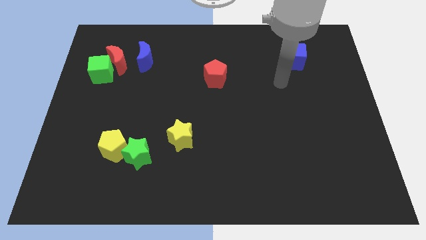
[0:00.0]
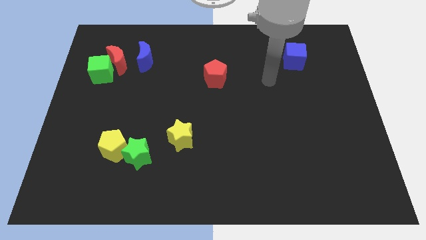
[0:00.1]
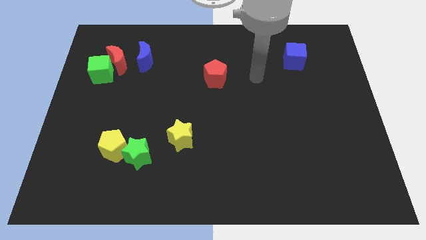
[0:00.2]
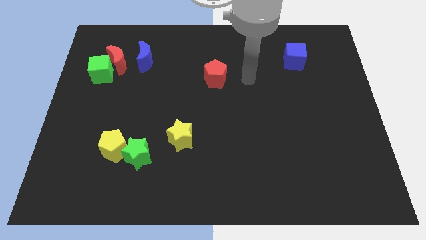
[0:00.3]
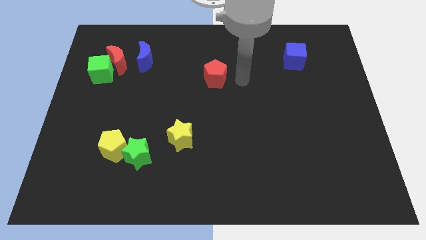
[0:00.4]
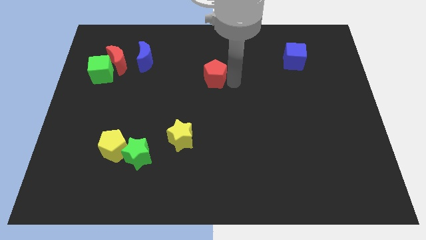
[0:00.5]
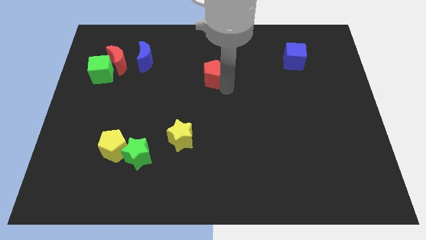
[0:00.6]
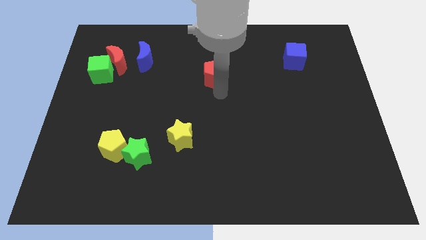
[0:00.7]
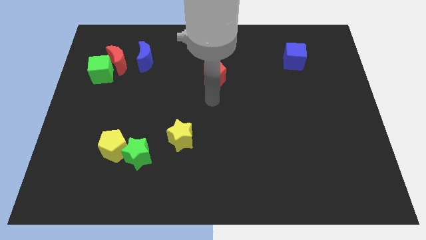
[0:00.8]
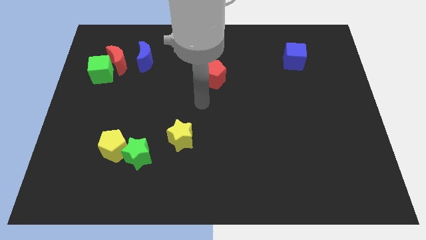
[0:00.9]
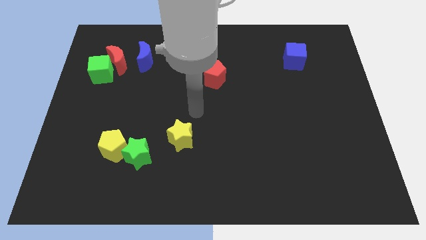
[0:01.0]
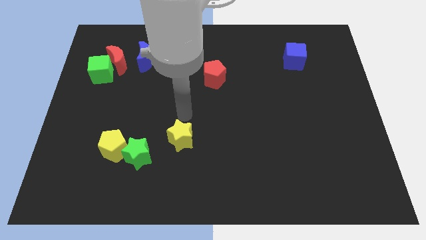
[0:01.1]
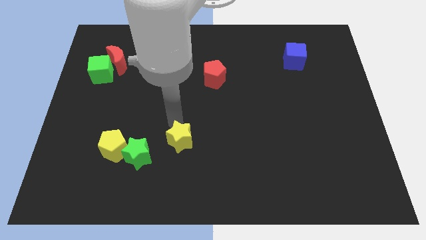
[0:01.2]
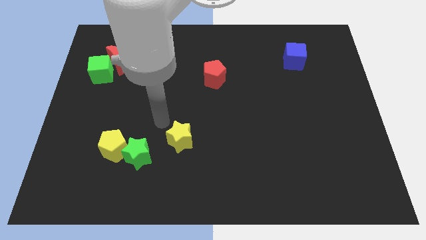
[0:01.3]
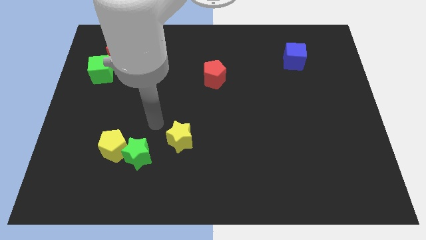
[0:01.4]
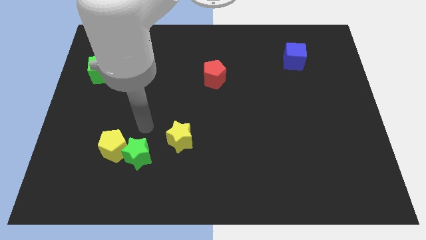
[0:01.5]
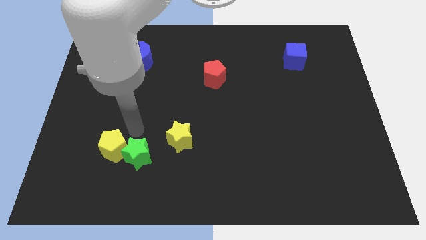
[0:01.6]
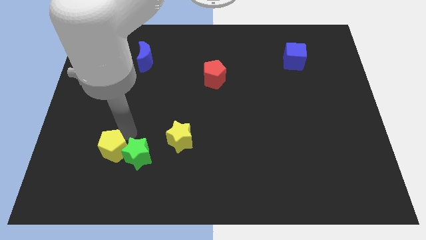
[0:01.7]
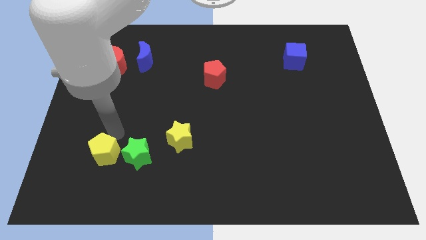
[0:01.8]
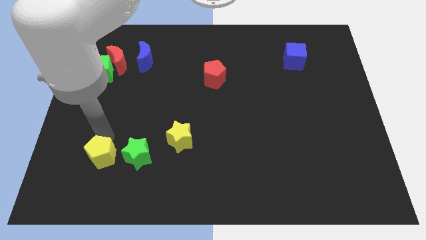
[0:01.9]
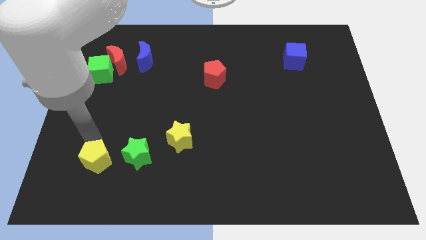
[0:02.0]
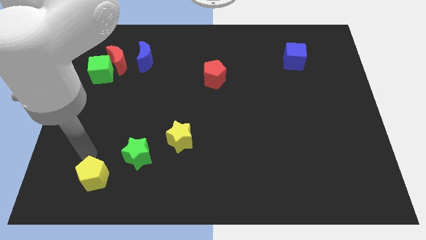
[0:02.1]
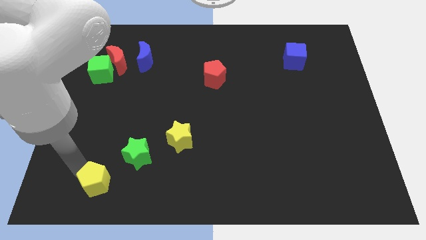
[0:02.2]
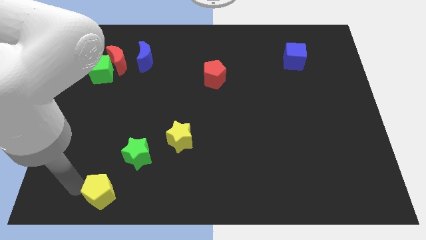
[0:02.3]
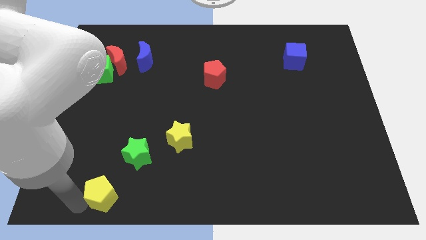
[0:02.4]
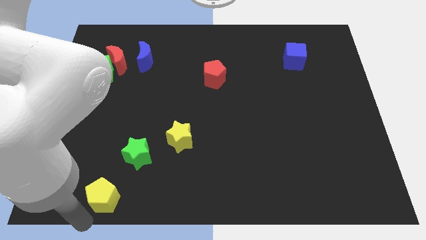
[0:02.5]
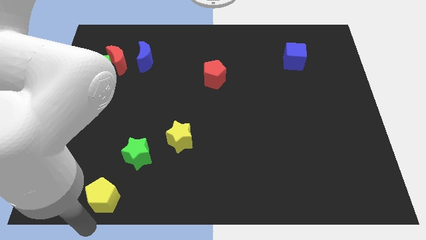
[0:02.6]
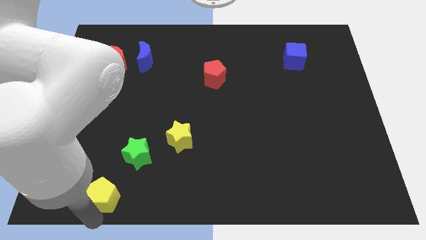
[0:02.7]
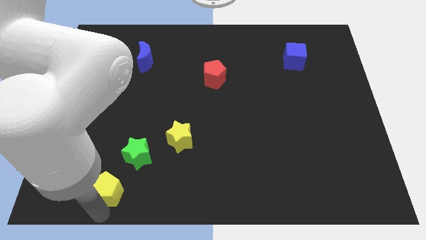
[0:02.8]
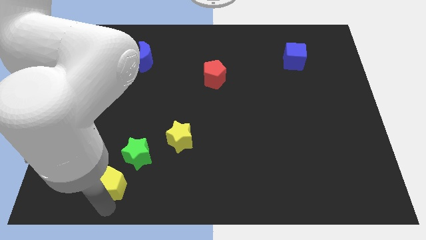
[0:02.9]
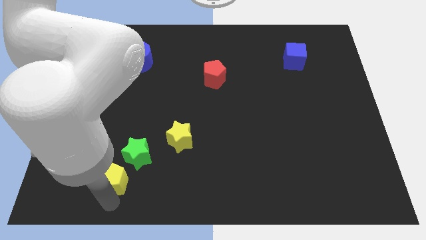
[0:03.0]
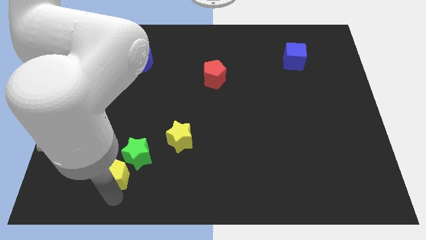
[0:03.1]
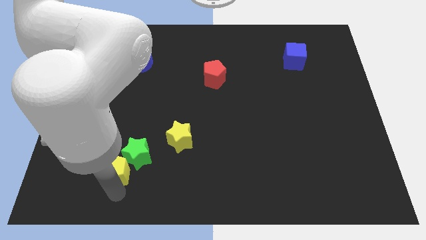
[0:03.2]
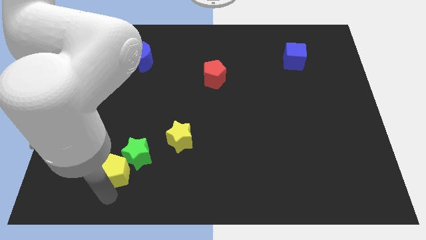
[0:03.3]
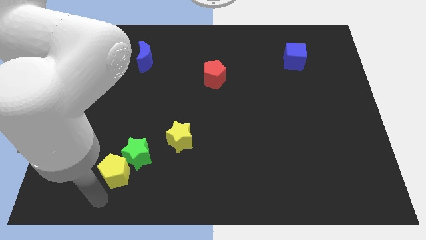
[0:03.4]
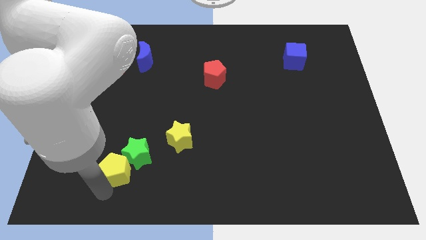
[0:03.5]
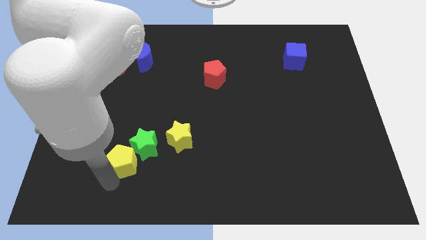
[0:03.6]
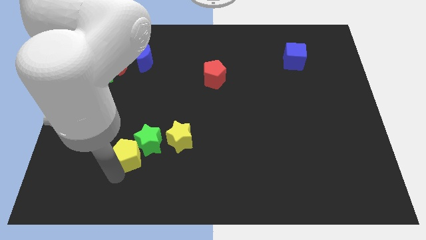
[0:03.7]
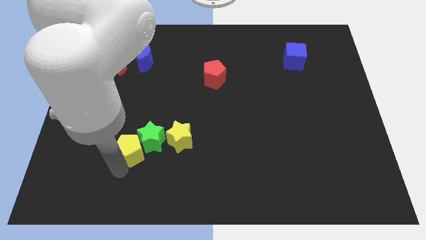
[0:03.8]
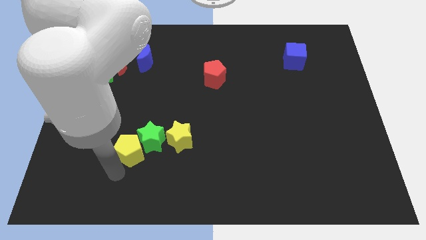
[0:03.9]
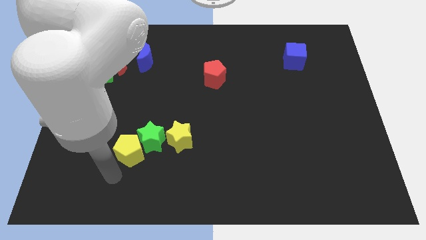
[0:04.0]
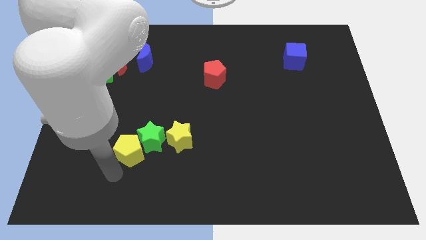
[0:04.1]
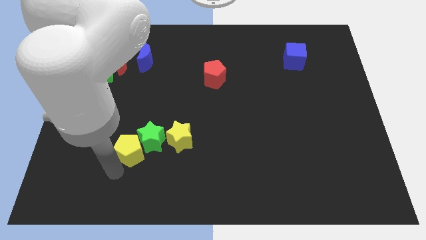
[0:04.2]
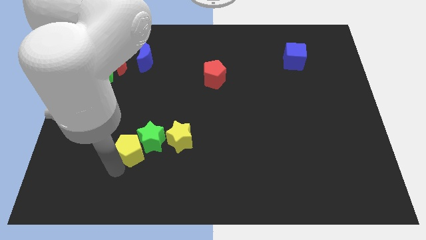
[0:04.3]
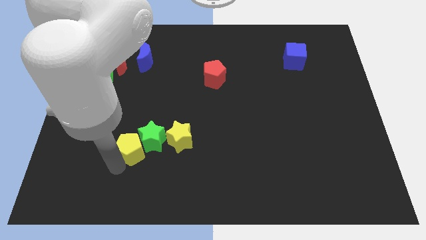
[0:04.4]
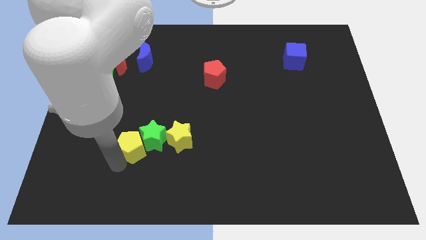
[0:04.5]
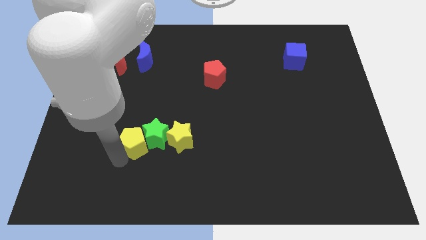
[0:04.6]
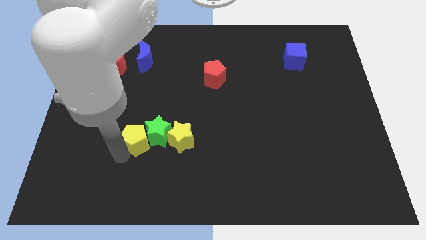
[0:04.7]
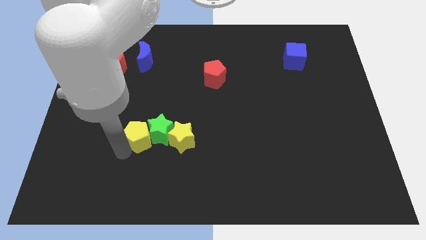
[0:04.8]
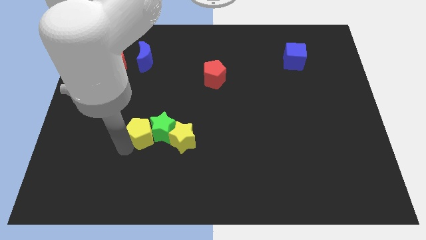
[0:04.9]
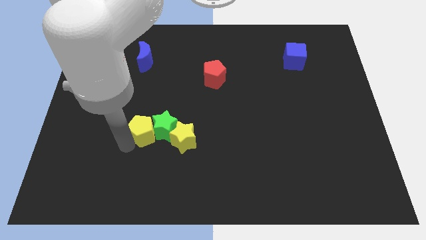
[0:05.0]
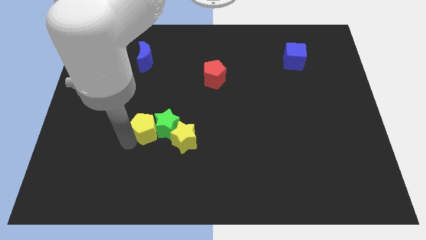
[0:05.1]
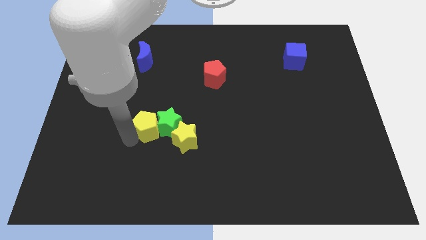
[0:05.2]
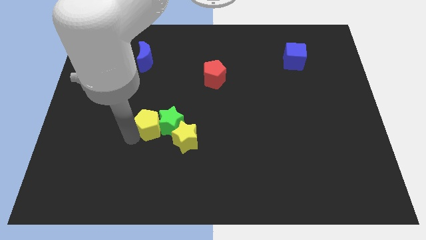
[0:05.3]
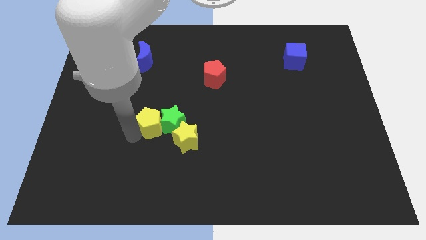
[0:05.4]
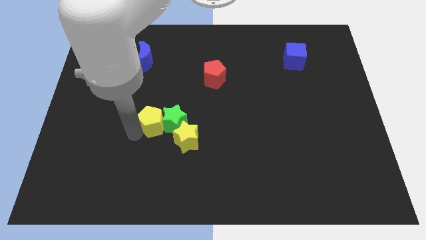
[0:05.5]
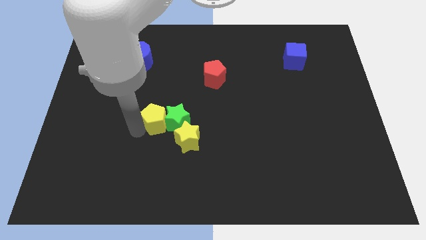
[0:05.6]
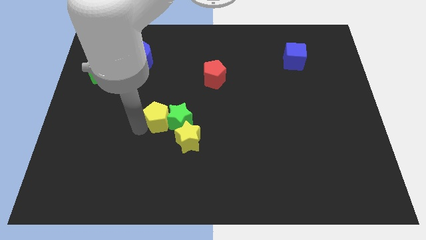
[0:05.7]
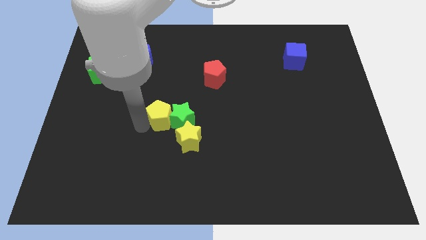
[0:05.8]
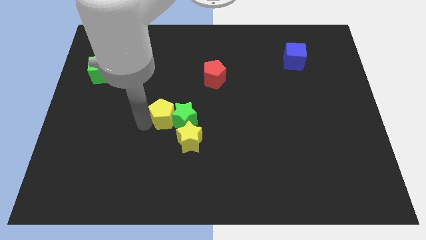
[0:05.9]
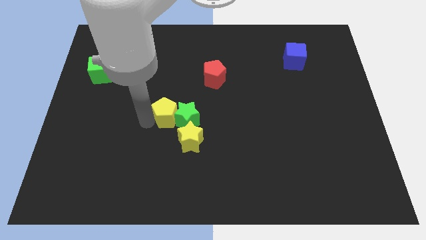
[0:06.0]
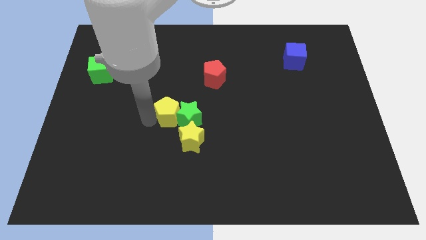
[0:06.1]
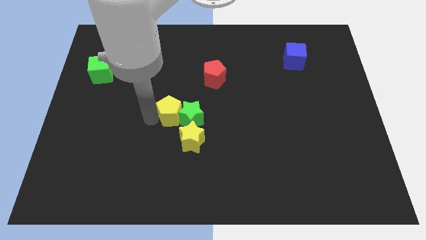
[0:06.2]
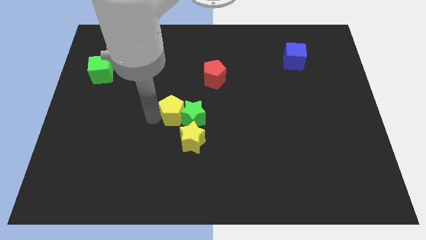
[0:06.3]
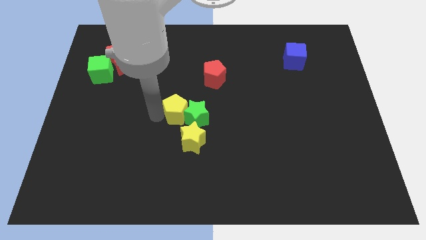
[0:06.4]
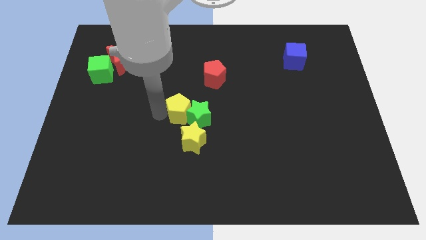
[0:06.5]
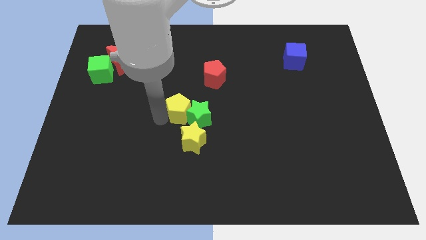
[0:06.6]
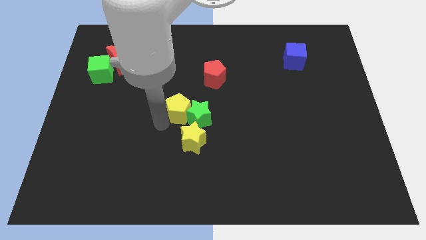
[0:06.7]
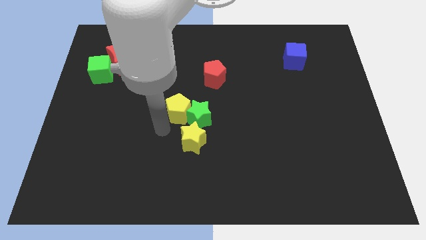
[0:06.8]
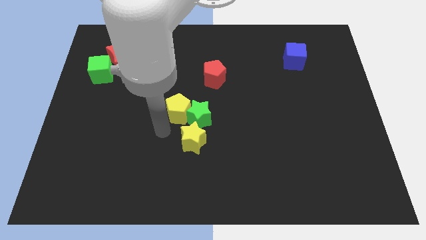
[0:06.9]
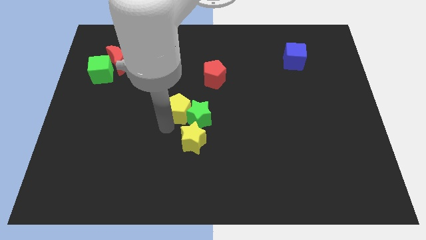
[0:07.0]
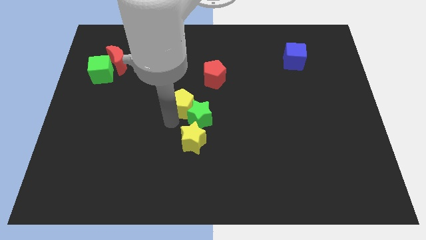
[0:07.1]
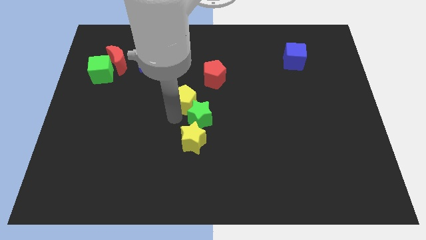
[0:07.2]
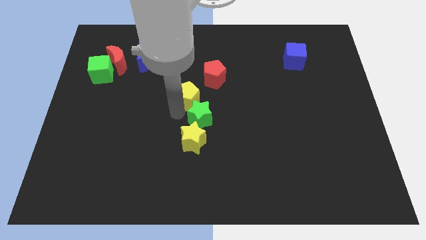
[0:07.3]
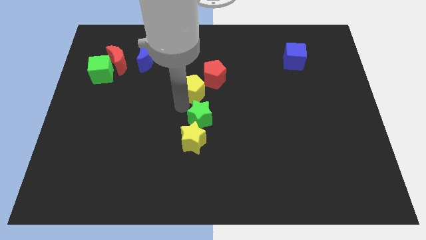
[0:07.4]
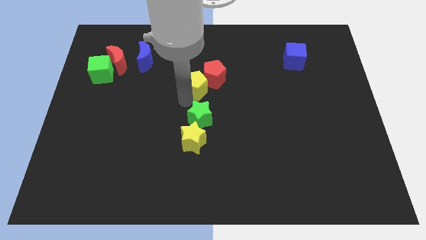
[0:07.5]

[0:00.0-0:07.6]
move the yellow pentagon close to the red pentagon

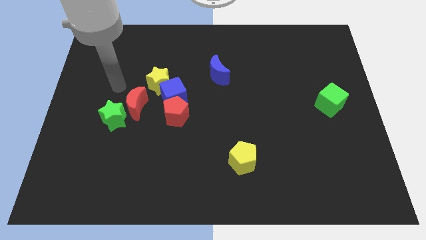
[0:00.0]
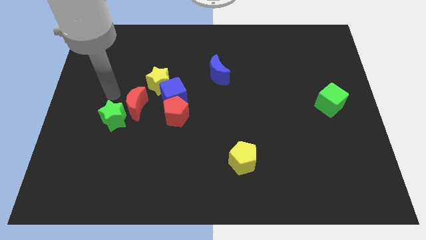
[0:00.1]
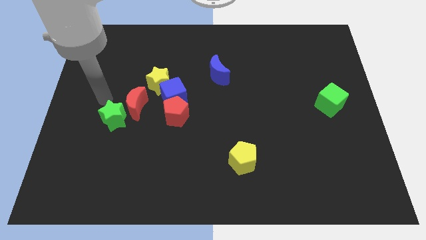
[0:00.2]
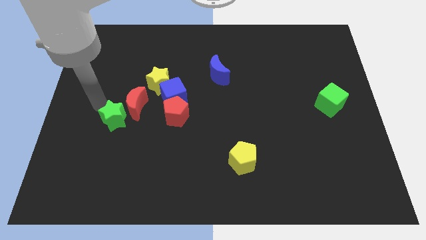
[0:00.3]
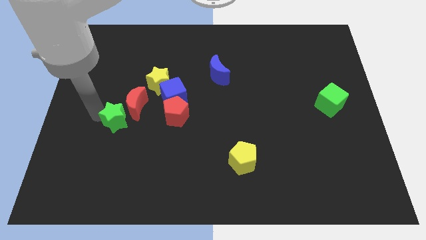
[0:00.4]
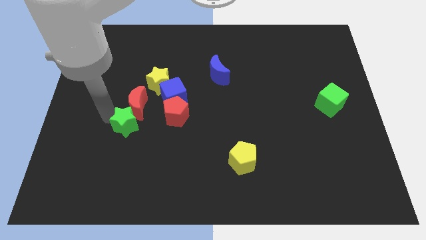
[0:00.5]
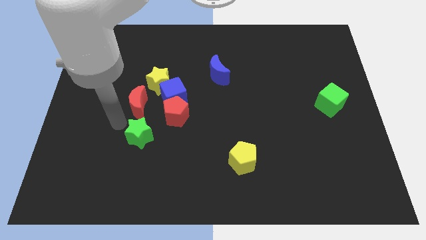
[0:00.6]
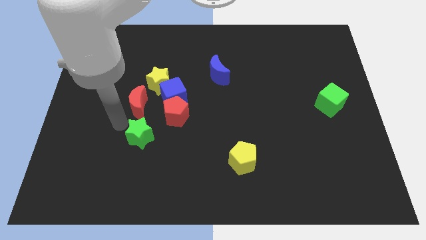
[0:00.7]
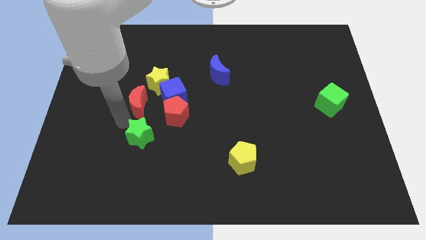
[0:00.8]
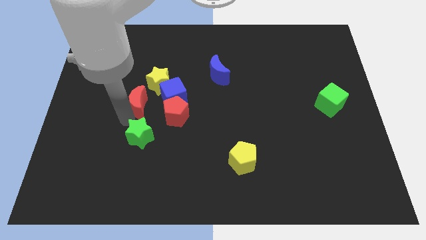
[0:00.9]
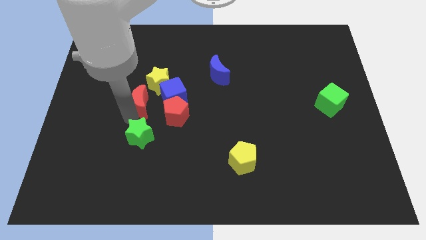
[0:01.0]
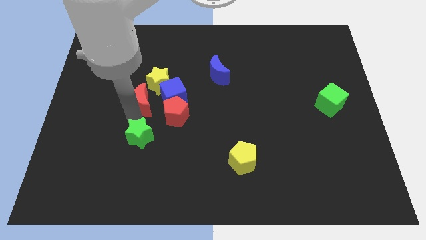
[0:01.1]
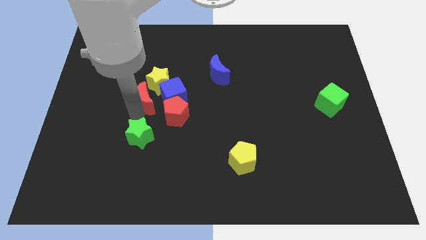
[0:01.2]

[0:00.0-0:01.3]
slide the red moon towards the yellow star
